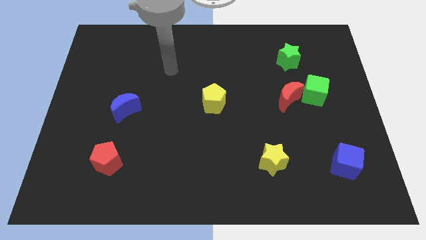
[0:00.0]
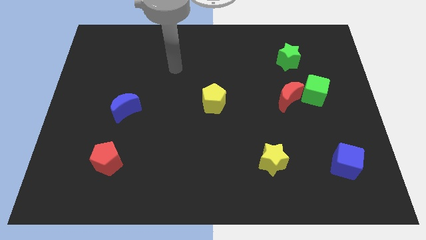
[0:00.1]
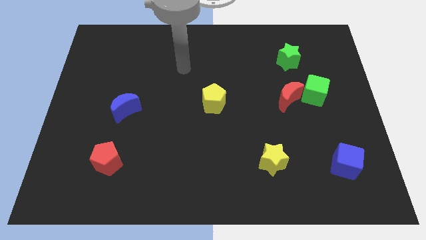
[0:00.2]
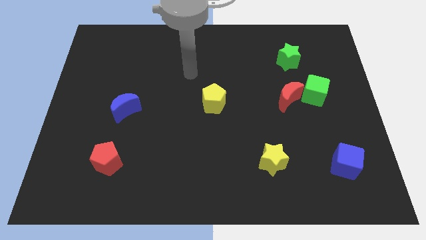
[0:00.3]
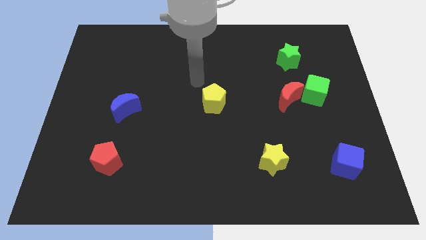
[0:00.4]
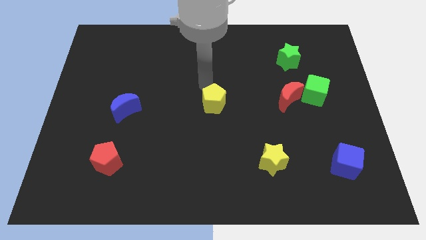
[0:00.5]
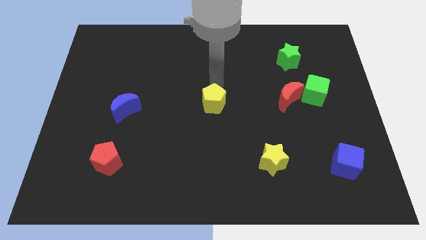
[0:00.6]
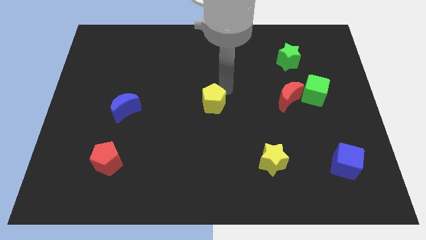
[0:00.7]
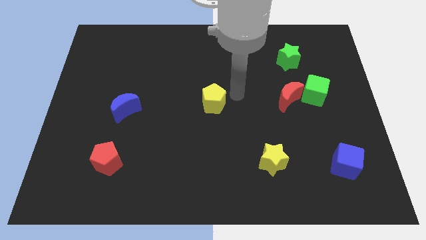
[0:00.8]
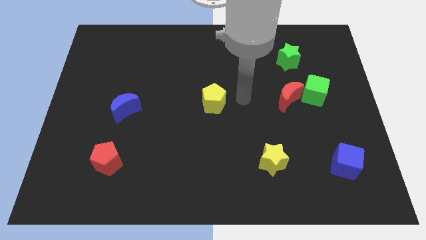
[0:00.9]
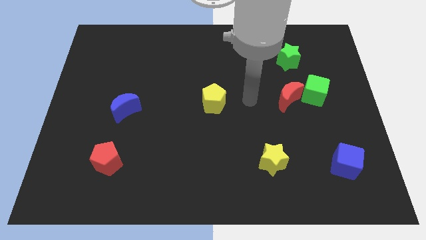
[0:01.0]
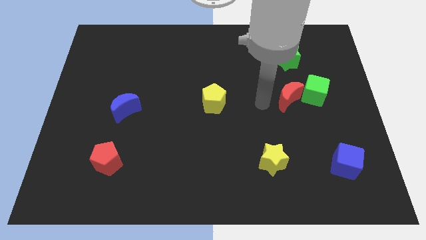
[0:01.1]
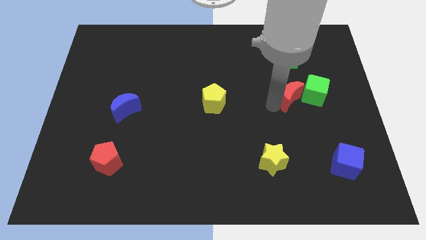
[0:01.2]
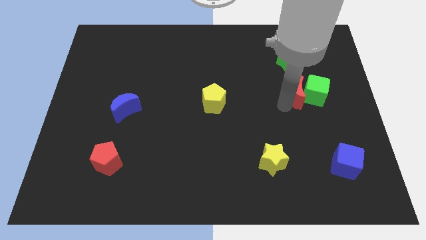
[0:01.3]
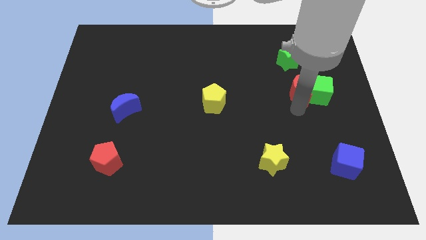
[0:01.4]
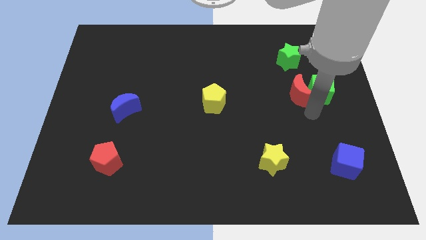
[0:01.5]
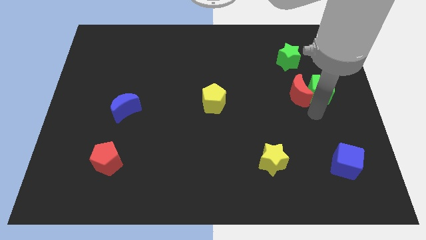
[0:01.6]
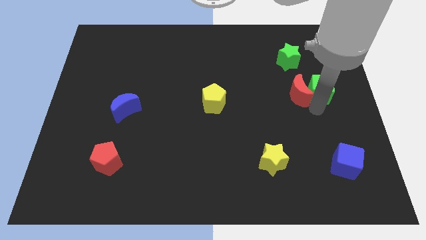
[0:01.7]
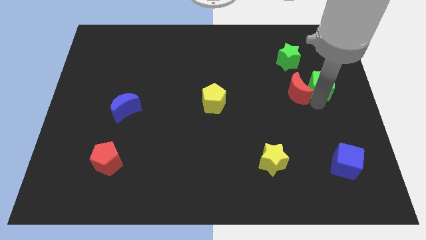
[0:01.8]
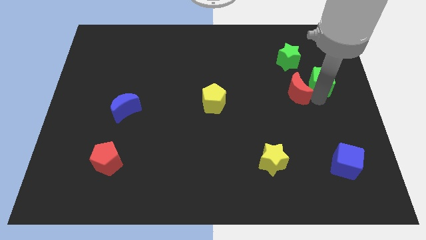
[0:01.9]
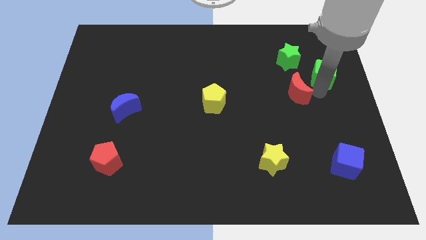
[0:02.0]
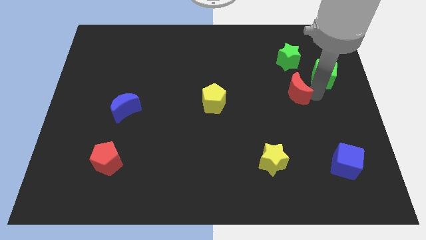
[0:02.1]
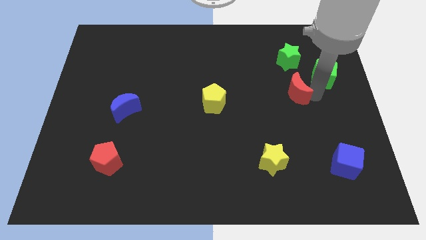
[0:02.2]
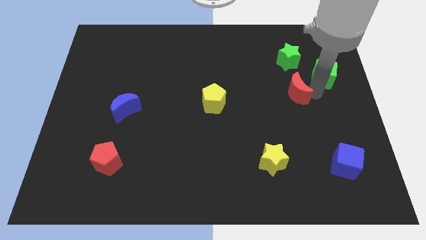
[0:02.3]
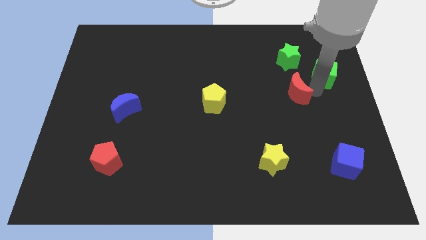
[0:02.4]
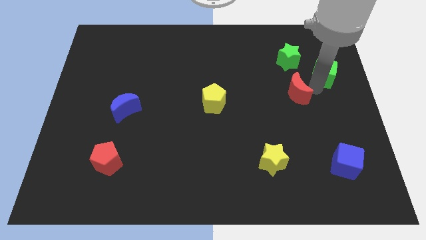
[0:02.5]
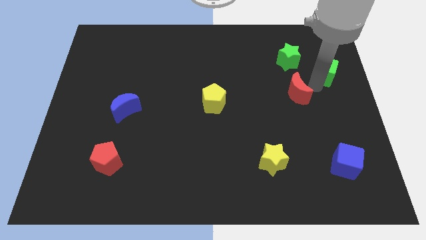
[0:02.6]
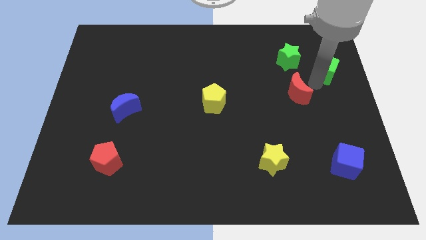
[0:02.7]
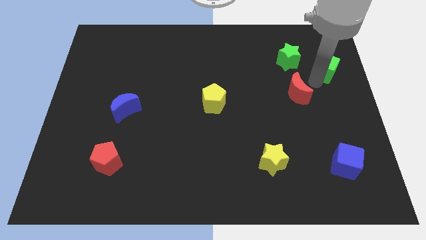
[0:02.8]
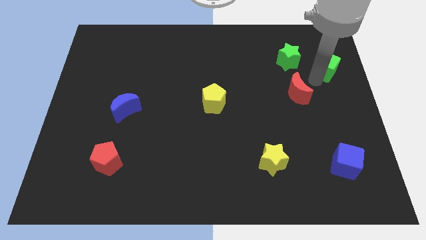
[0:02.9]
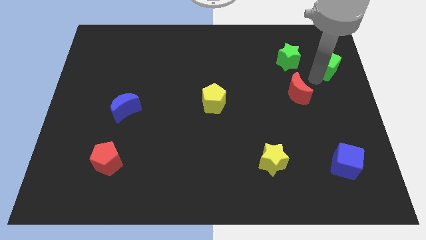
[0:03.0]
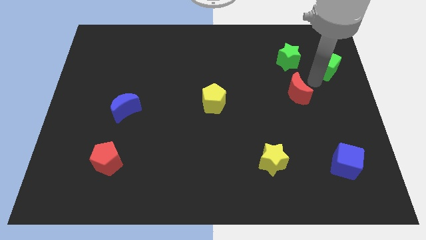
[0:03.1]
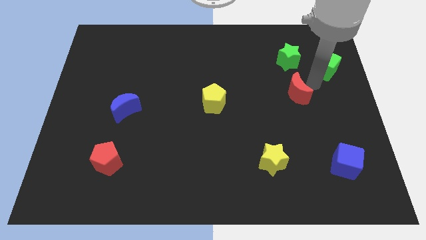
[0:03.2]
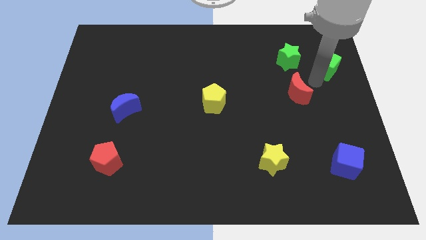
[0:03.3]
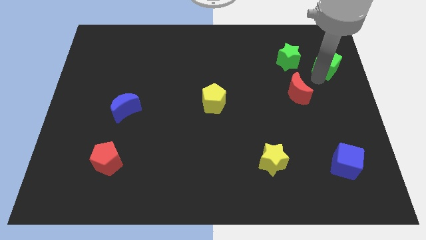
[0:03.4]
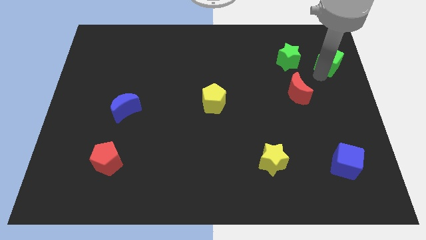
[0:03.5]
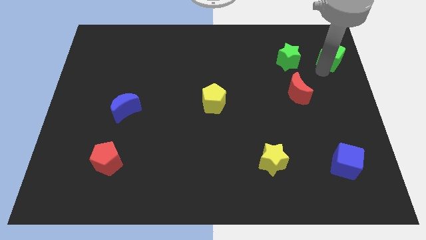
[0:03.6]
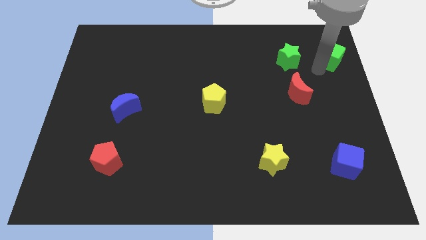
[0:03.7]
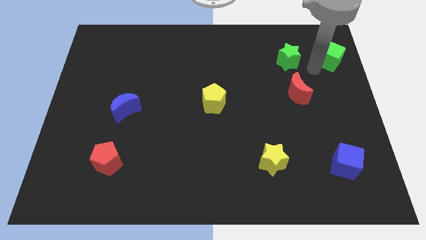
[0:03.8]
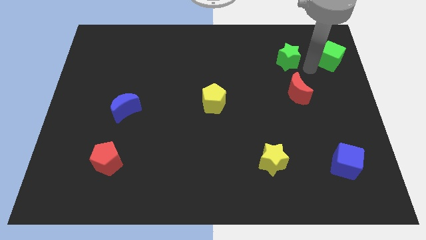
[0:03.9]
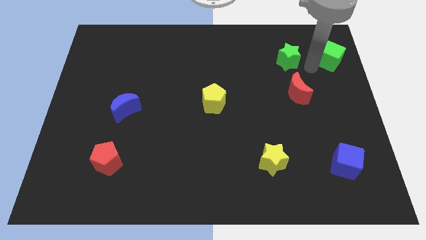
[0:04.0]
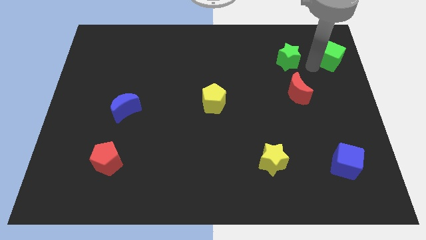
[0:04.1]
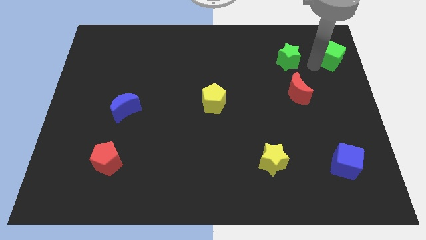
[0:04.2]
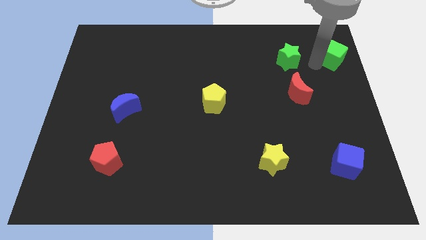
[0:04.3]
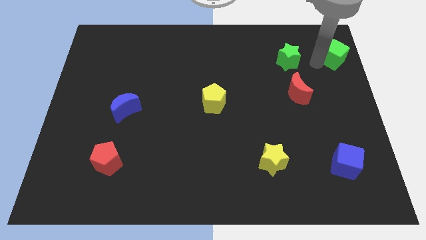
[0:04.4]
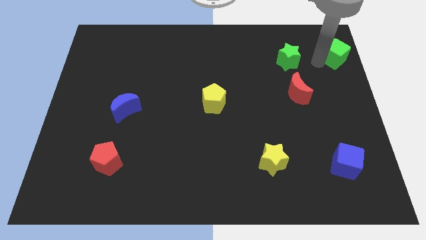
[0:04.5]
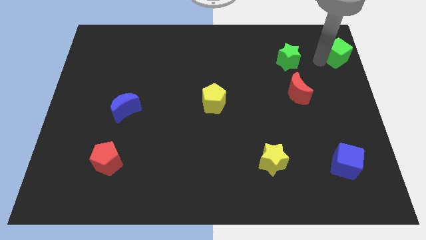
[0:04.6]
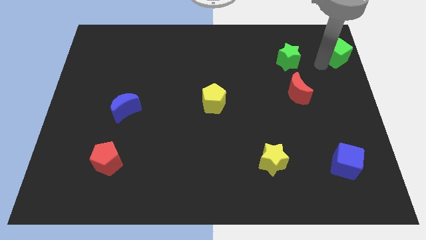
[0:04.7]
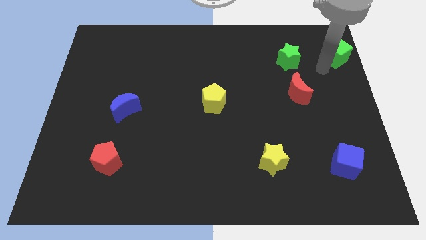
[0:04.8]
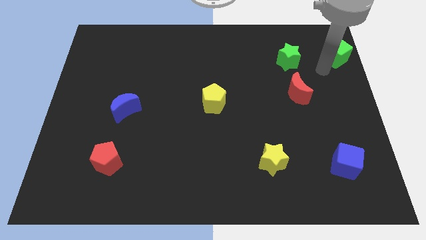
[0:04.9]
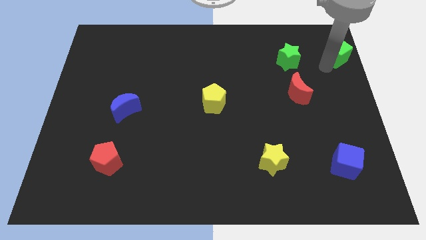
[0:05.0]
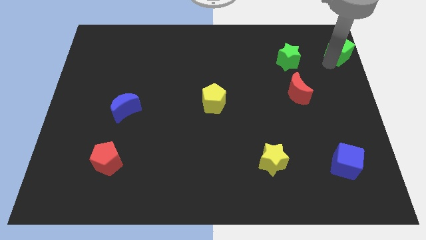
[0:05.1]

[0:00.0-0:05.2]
push the green cube to the top right

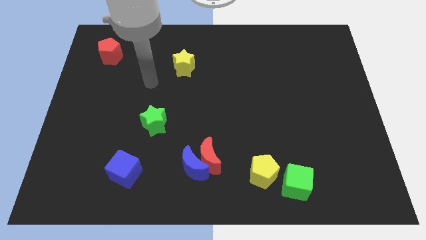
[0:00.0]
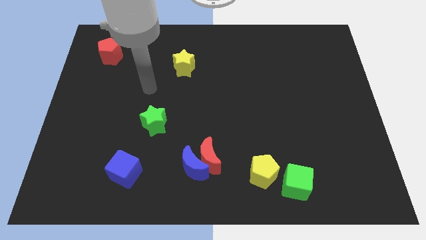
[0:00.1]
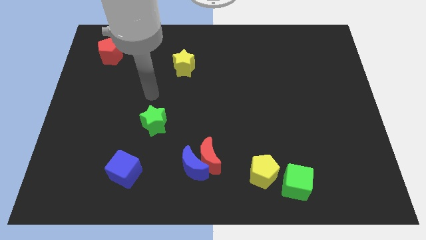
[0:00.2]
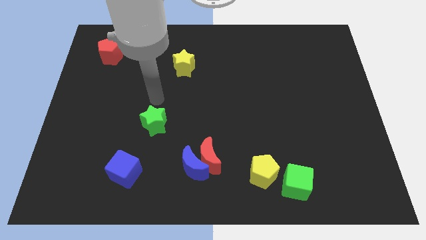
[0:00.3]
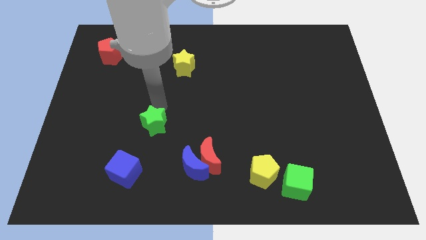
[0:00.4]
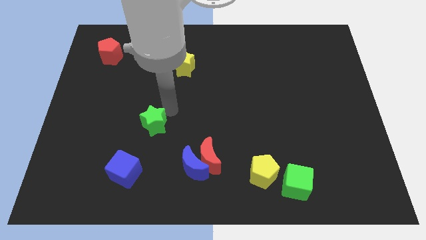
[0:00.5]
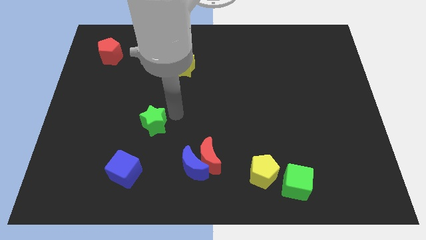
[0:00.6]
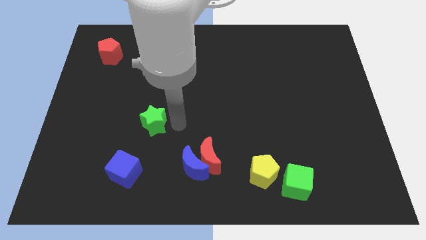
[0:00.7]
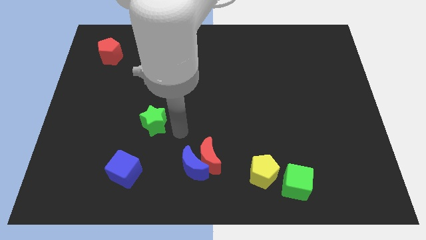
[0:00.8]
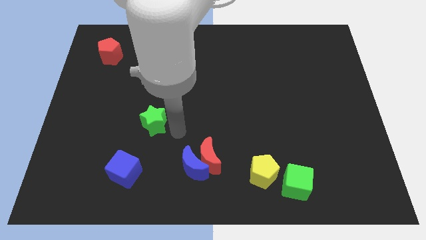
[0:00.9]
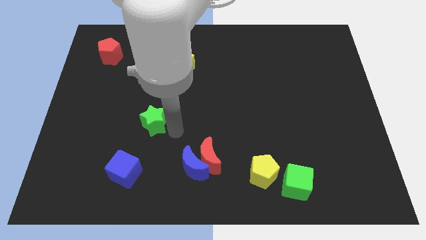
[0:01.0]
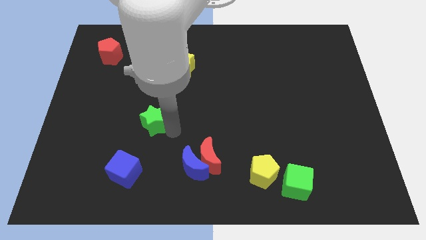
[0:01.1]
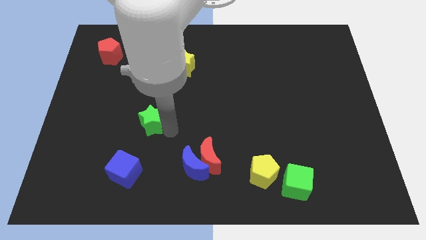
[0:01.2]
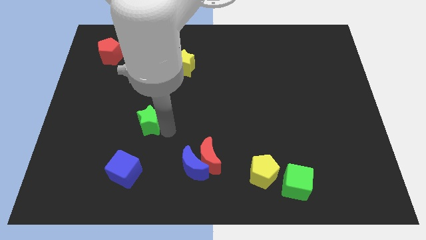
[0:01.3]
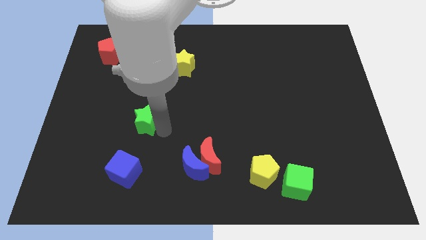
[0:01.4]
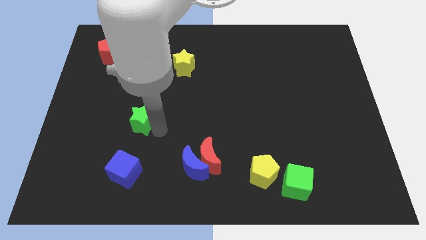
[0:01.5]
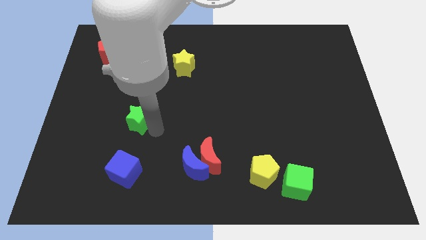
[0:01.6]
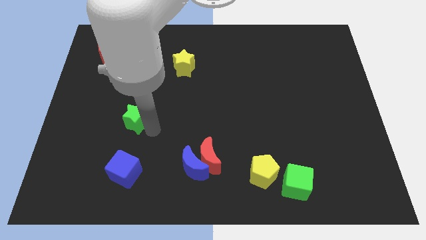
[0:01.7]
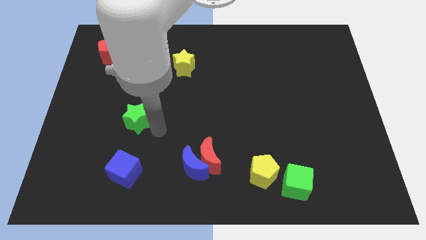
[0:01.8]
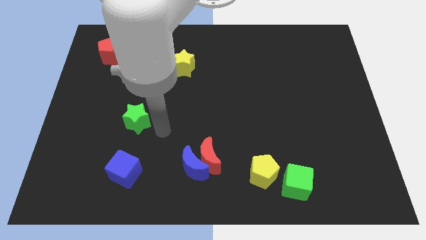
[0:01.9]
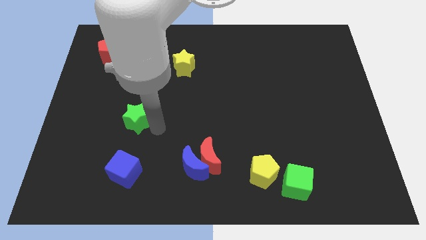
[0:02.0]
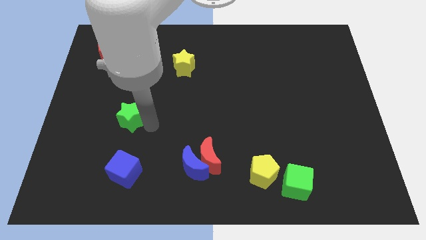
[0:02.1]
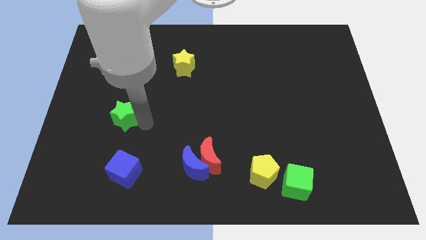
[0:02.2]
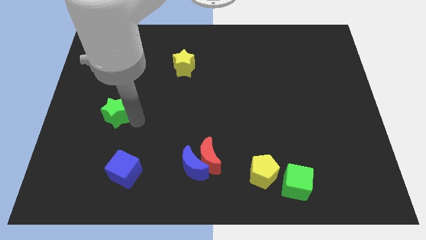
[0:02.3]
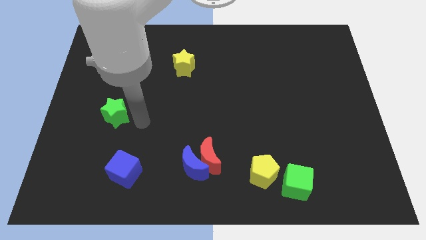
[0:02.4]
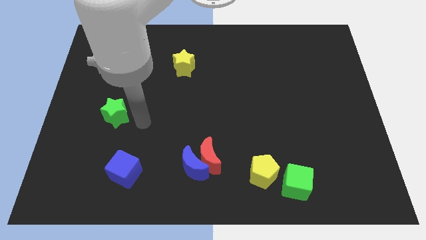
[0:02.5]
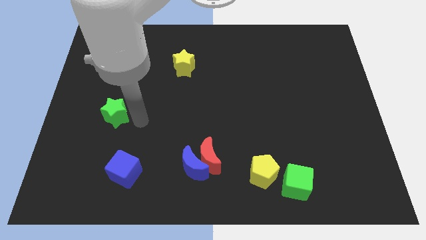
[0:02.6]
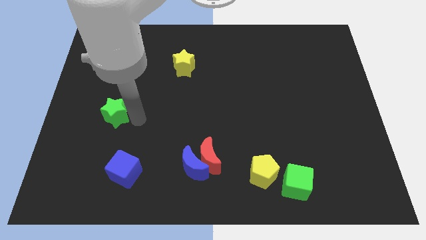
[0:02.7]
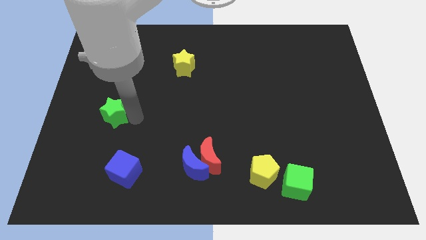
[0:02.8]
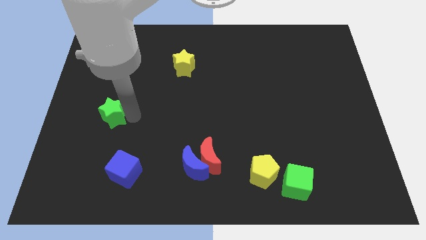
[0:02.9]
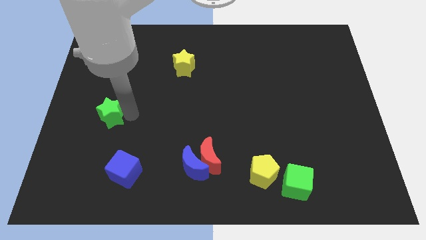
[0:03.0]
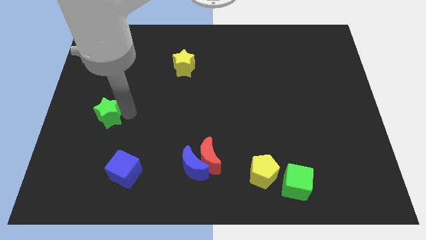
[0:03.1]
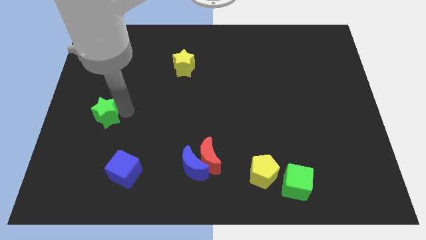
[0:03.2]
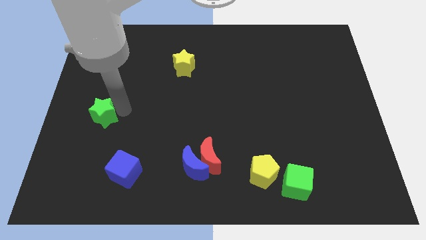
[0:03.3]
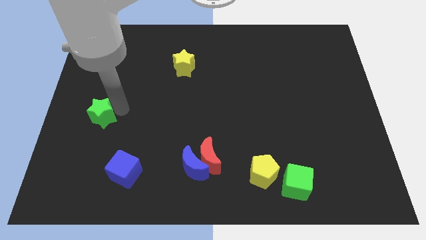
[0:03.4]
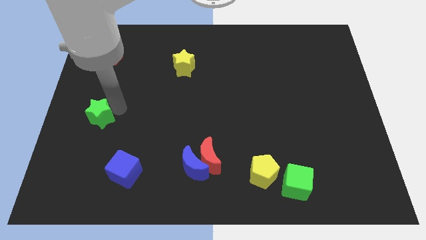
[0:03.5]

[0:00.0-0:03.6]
push the green star to the left side of the board
